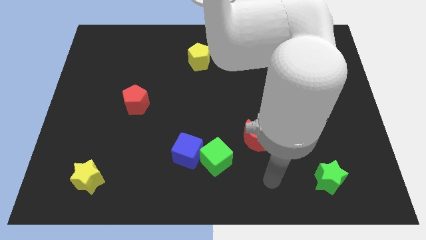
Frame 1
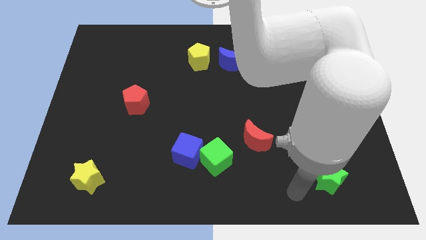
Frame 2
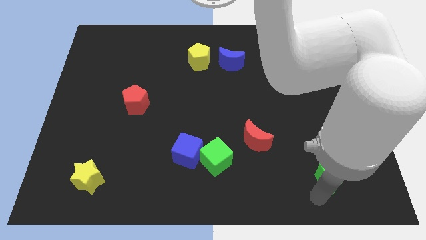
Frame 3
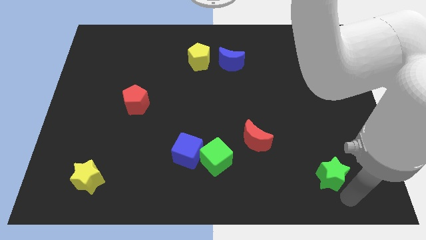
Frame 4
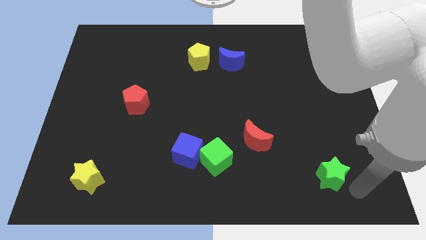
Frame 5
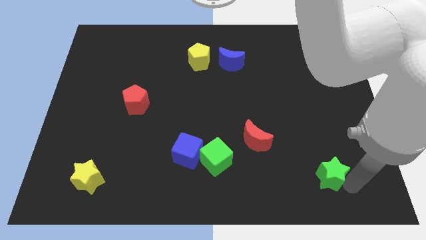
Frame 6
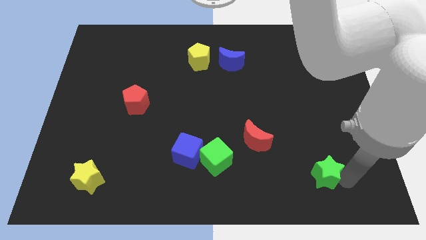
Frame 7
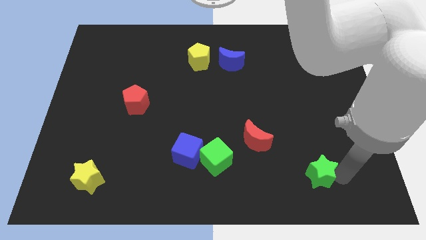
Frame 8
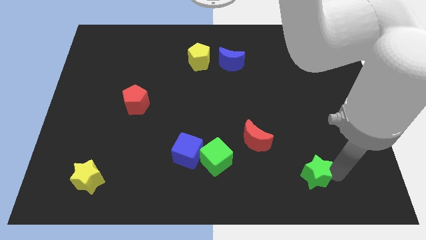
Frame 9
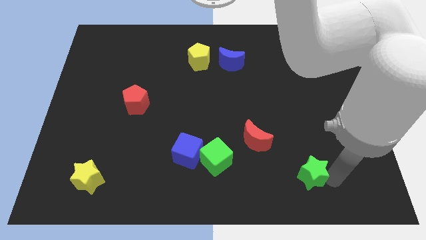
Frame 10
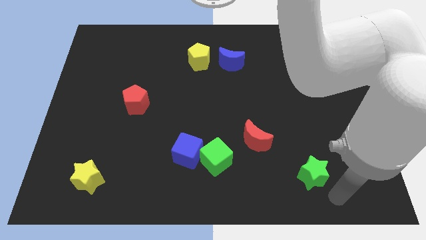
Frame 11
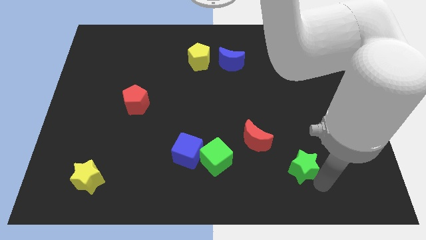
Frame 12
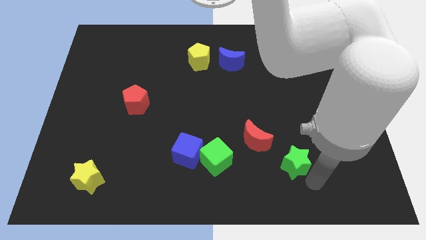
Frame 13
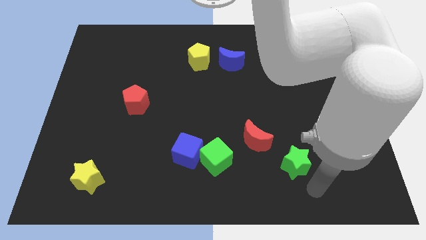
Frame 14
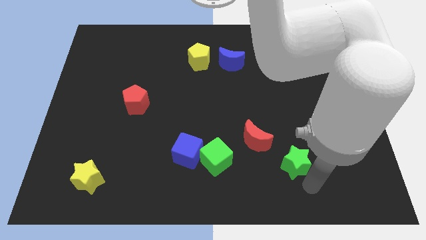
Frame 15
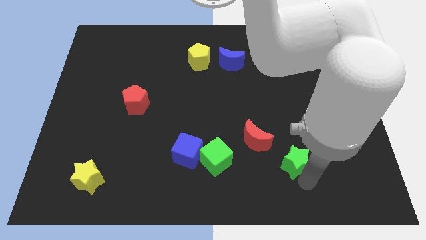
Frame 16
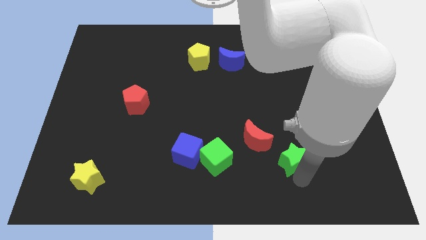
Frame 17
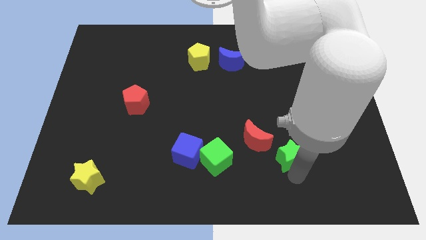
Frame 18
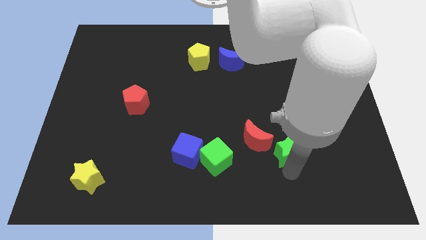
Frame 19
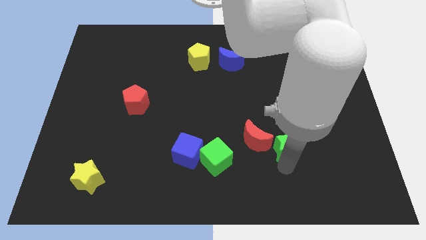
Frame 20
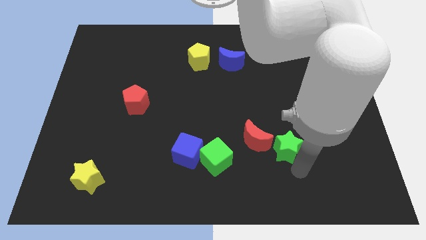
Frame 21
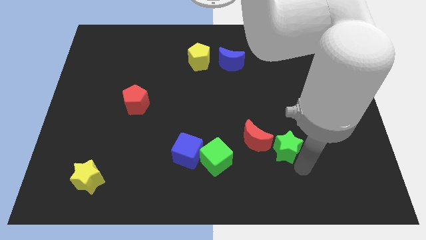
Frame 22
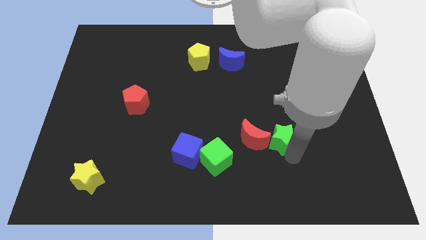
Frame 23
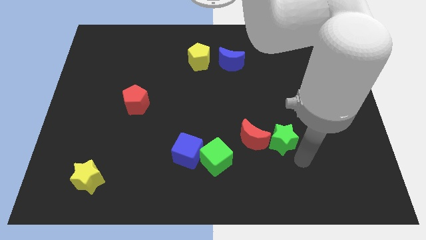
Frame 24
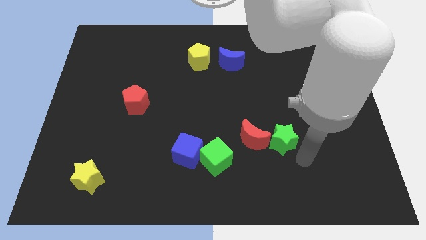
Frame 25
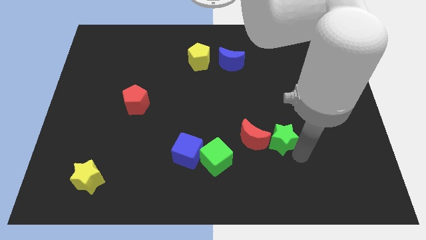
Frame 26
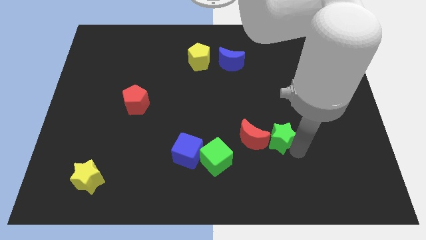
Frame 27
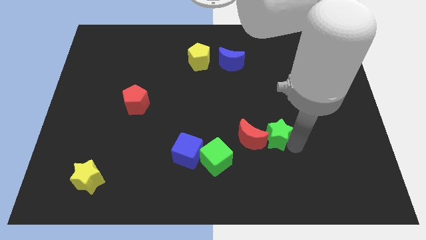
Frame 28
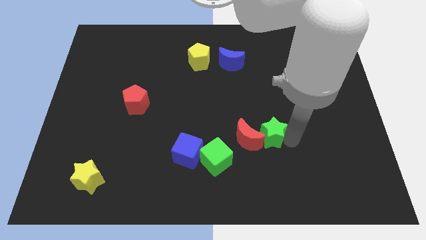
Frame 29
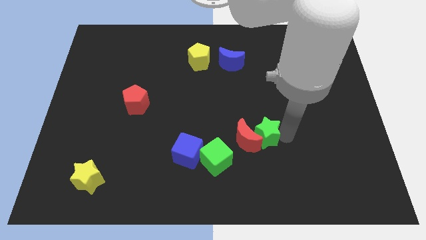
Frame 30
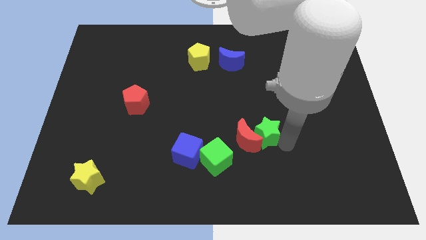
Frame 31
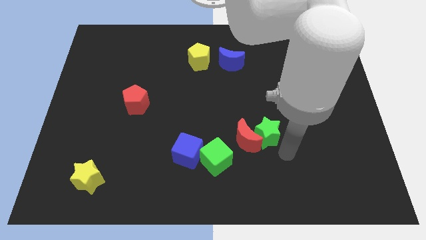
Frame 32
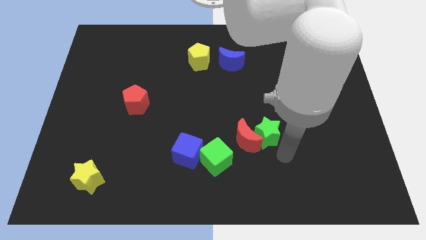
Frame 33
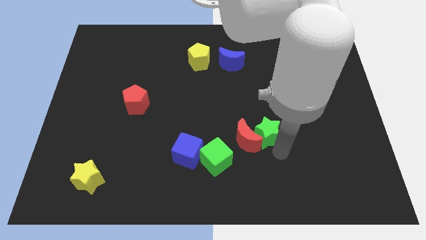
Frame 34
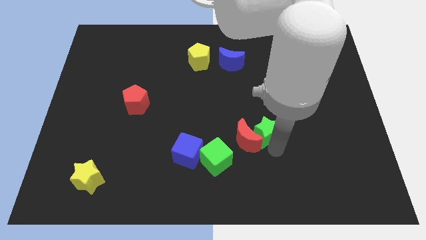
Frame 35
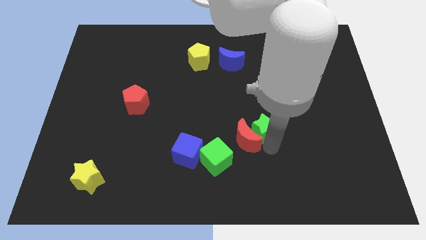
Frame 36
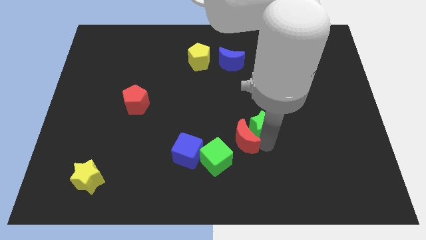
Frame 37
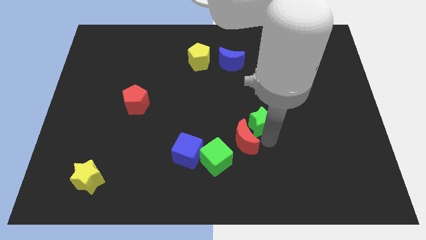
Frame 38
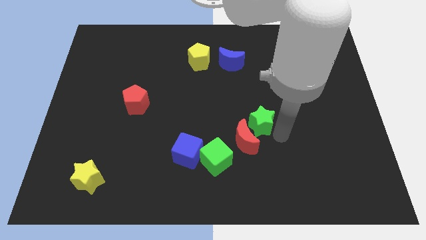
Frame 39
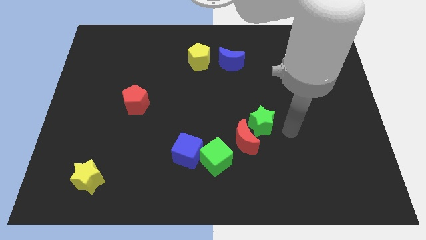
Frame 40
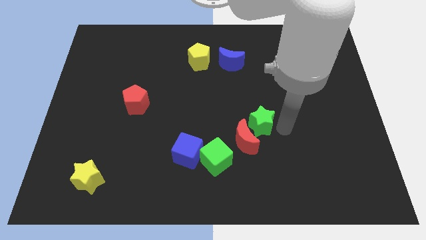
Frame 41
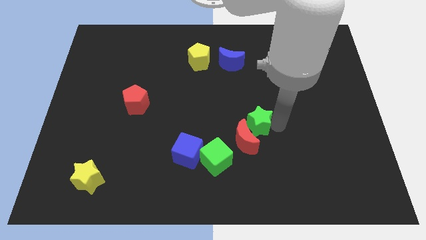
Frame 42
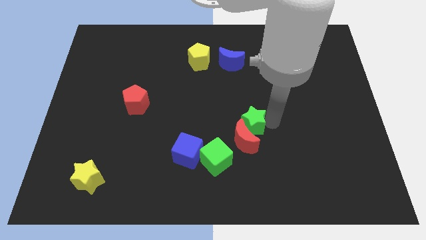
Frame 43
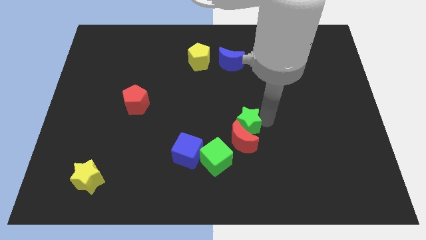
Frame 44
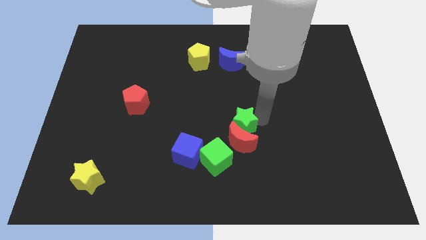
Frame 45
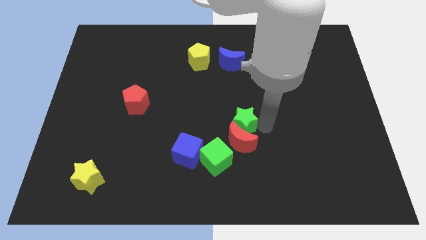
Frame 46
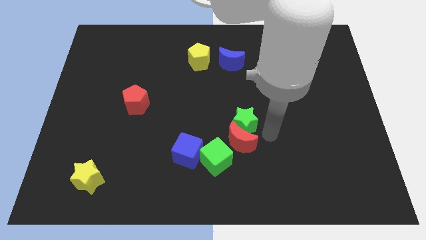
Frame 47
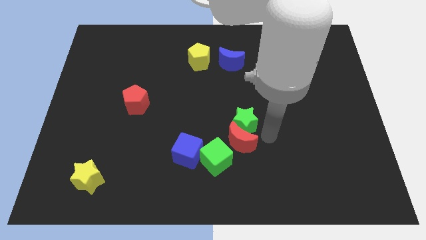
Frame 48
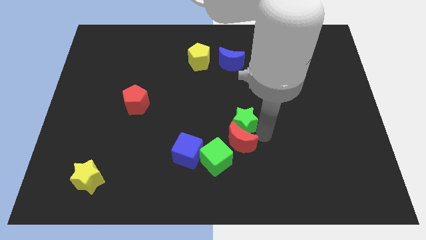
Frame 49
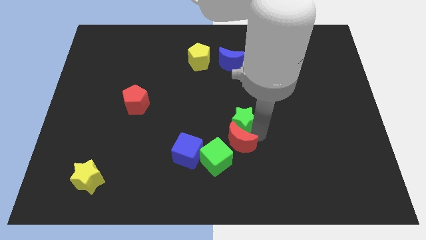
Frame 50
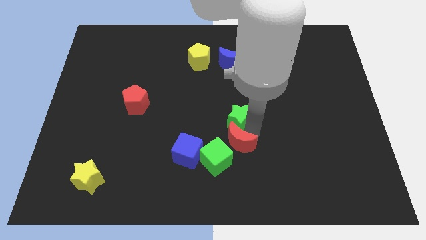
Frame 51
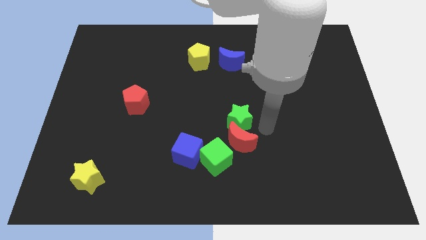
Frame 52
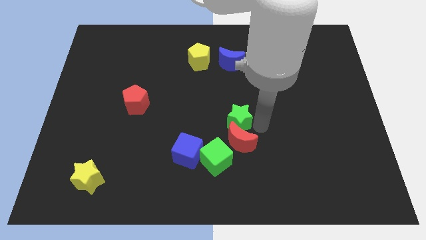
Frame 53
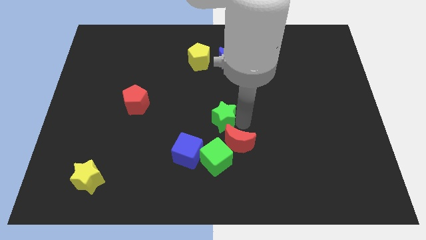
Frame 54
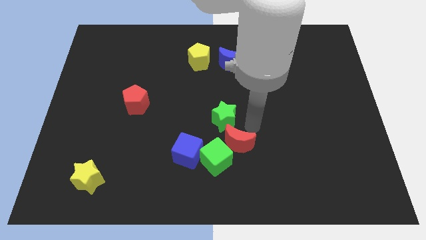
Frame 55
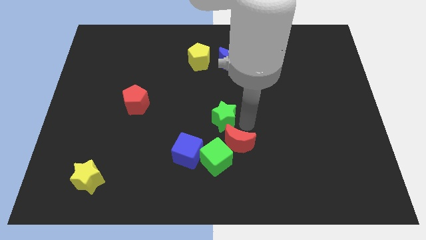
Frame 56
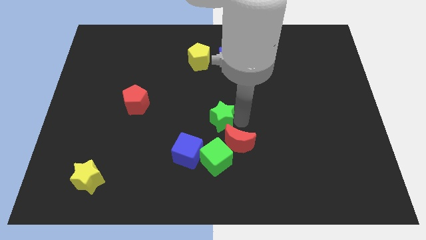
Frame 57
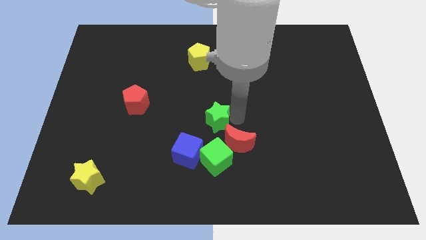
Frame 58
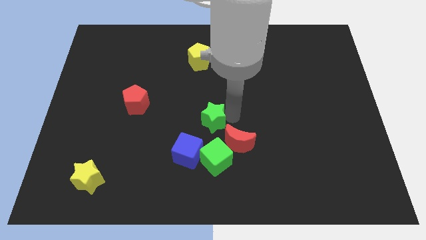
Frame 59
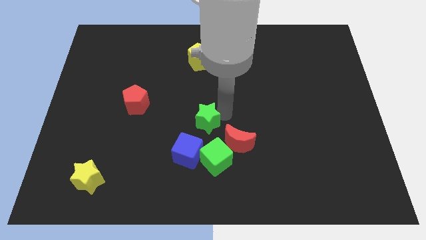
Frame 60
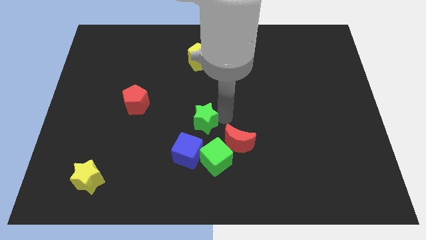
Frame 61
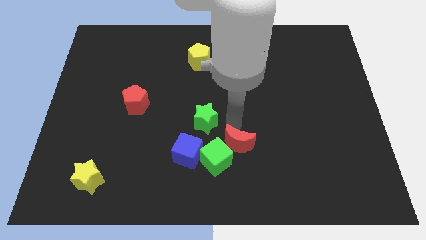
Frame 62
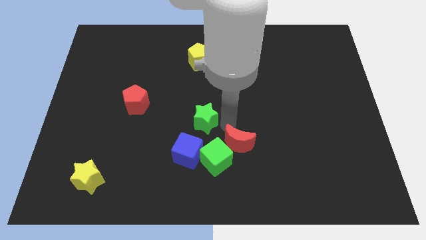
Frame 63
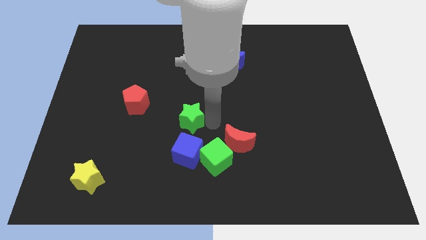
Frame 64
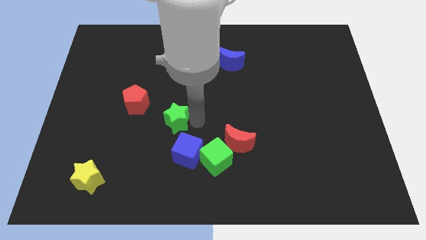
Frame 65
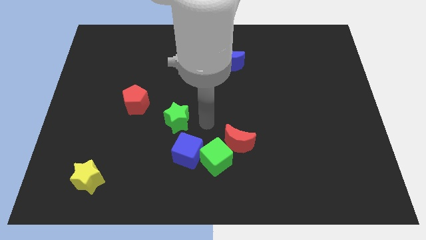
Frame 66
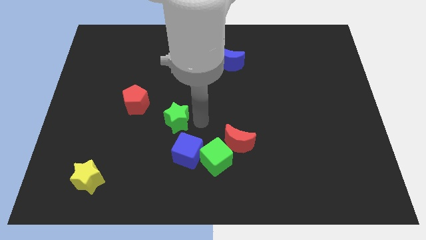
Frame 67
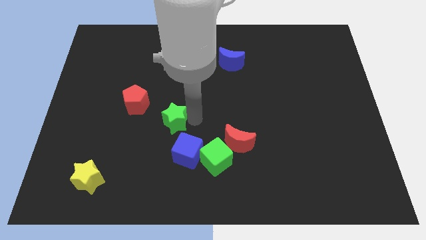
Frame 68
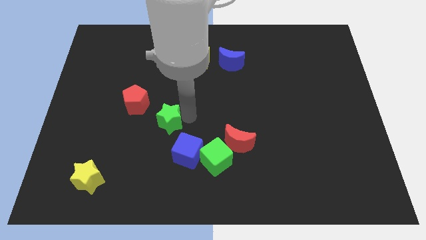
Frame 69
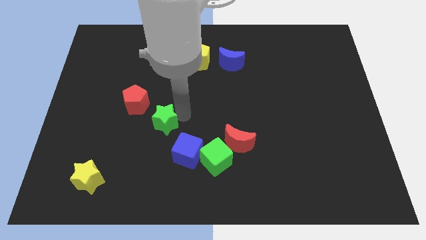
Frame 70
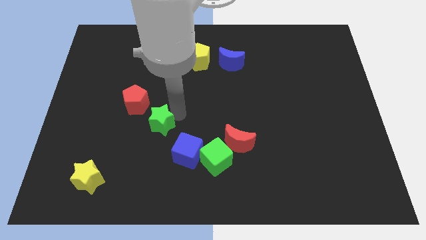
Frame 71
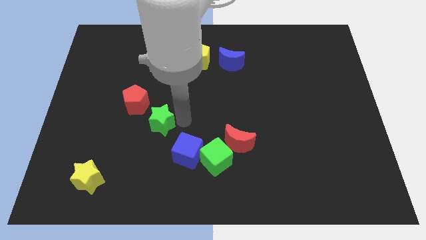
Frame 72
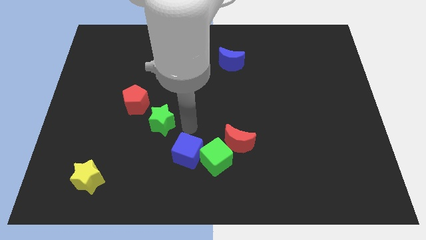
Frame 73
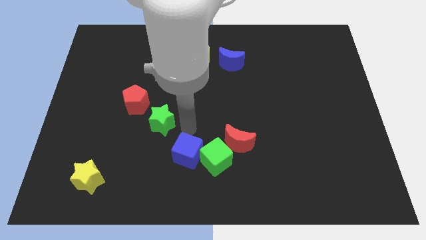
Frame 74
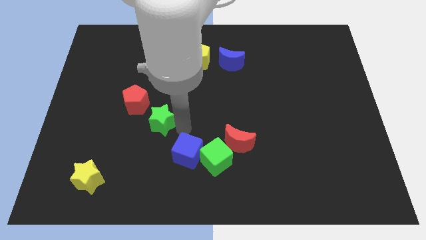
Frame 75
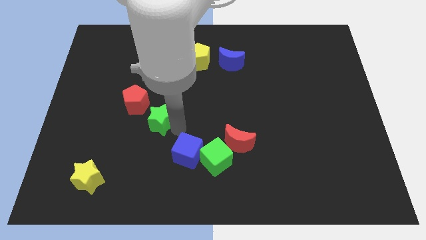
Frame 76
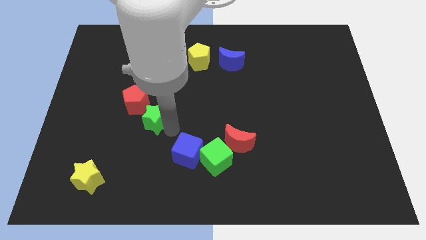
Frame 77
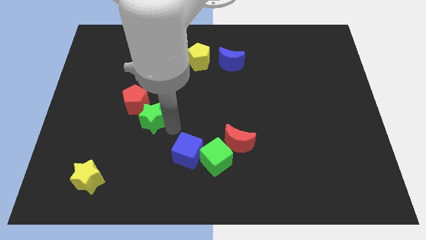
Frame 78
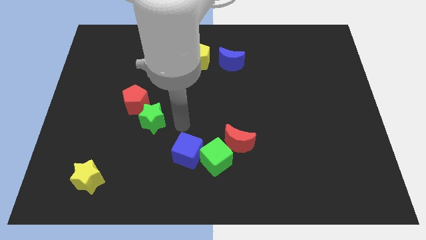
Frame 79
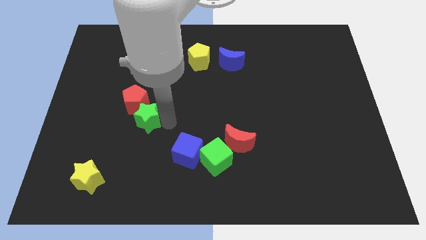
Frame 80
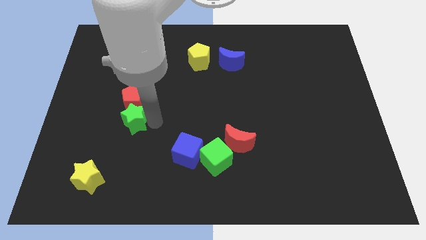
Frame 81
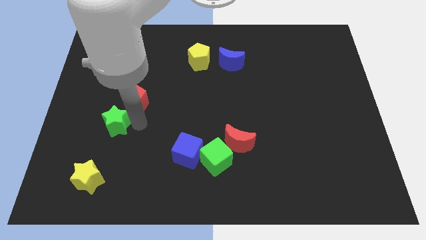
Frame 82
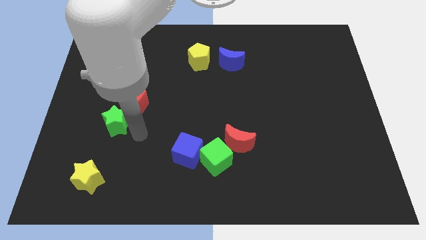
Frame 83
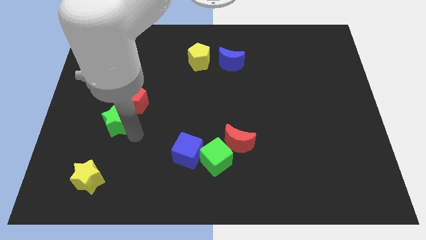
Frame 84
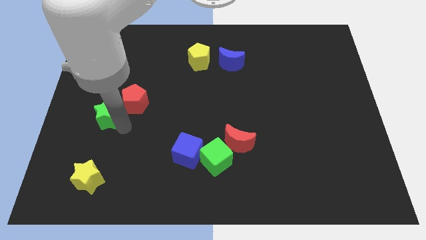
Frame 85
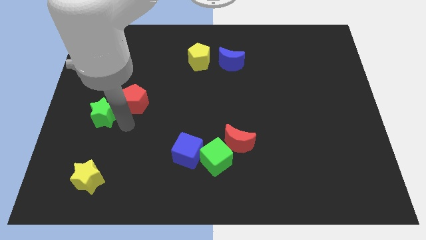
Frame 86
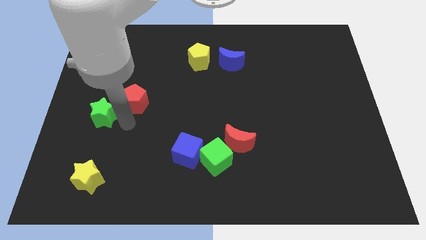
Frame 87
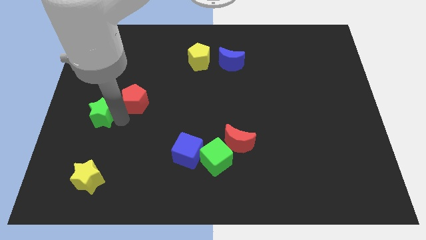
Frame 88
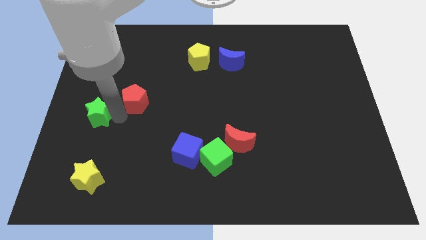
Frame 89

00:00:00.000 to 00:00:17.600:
slide the green star to the center left
